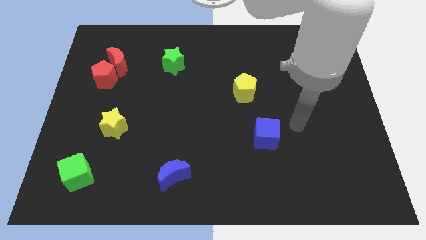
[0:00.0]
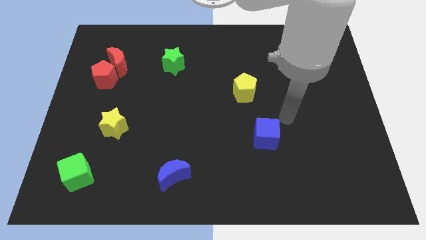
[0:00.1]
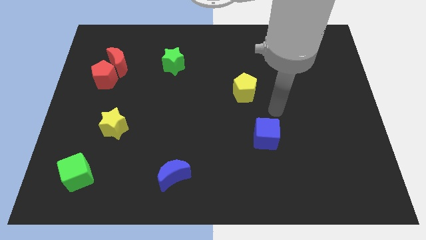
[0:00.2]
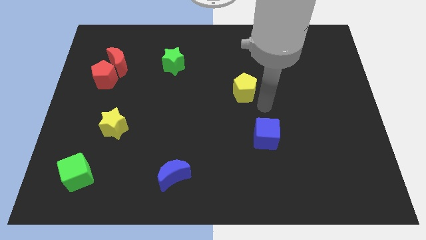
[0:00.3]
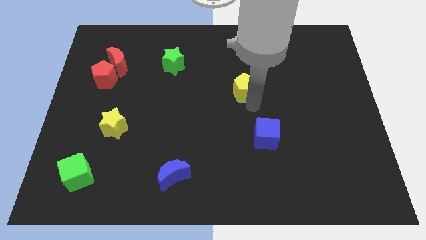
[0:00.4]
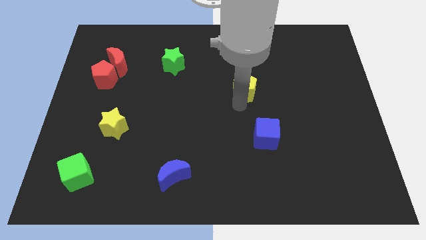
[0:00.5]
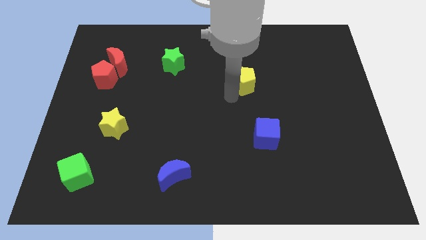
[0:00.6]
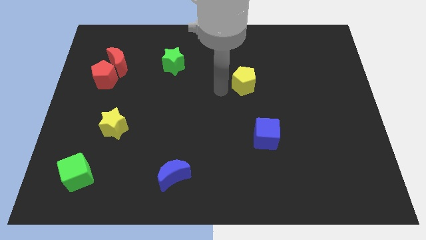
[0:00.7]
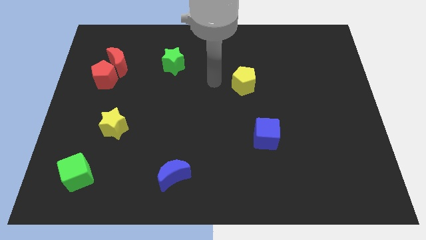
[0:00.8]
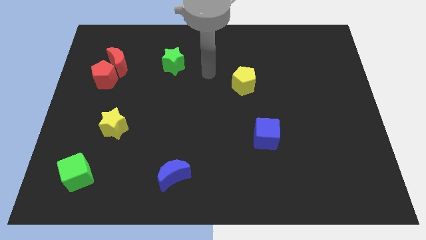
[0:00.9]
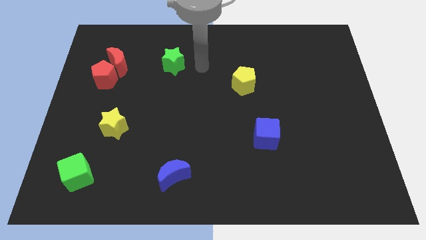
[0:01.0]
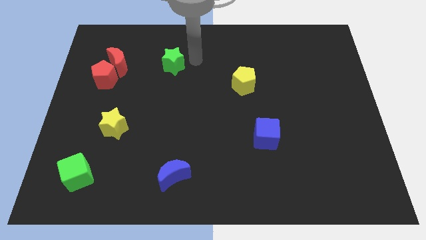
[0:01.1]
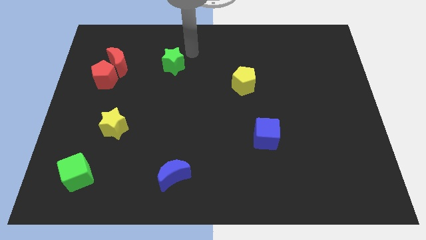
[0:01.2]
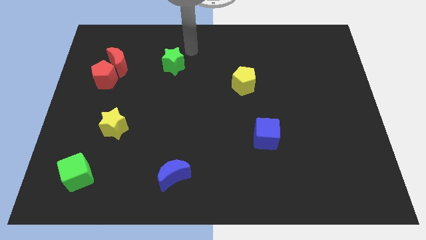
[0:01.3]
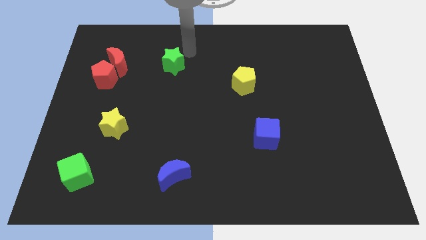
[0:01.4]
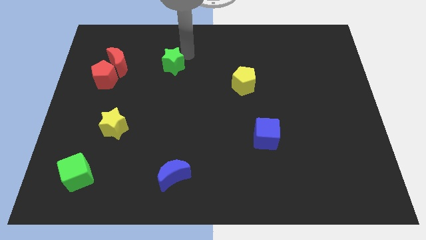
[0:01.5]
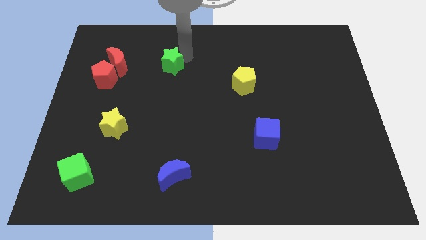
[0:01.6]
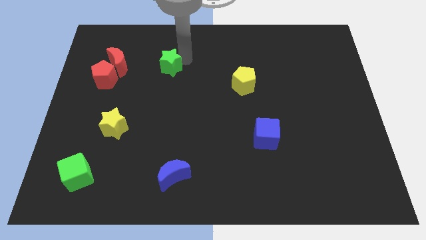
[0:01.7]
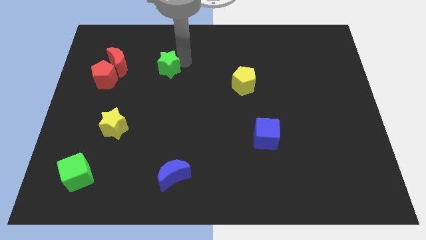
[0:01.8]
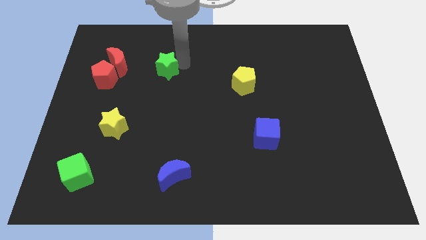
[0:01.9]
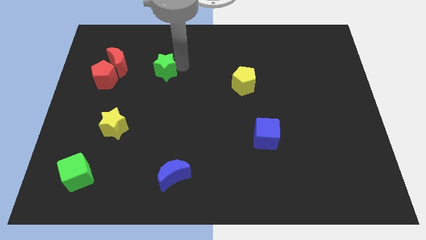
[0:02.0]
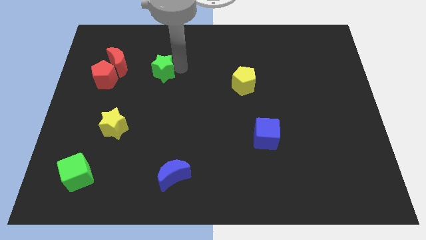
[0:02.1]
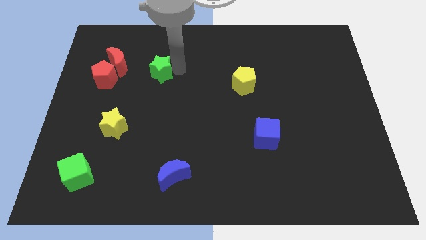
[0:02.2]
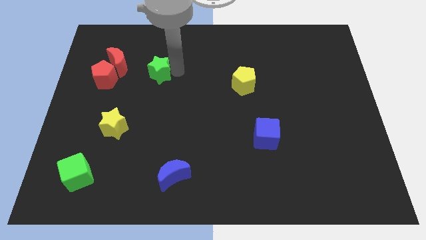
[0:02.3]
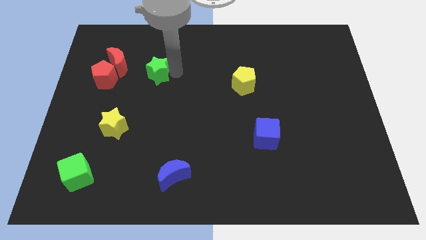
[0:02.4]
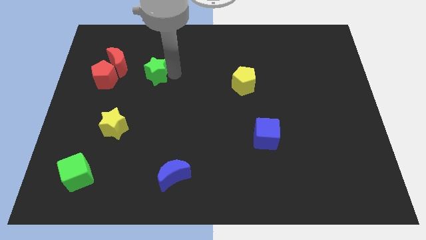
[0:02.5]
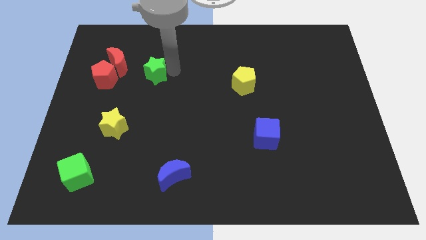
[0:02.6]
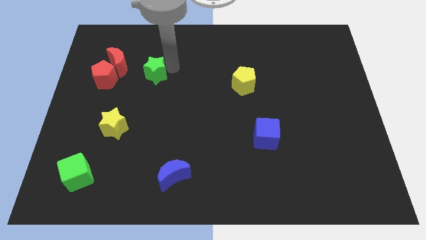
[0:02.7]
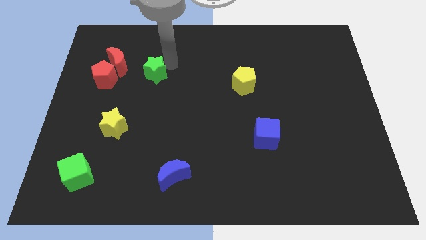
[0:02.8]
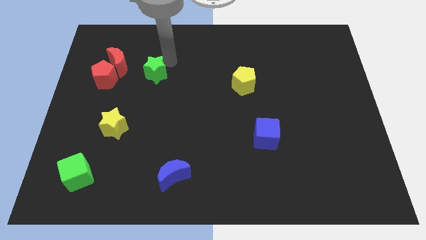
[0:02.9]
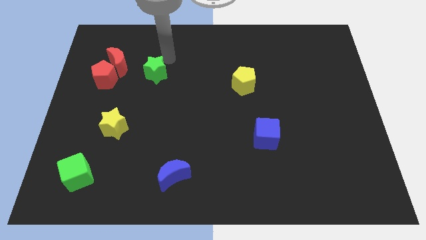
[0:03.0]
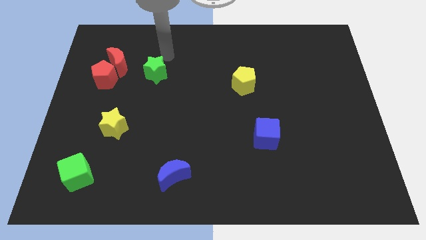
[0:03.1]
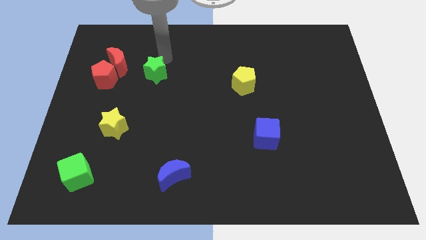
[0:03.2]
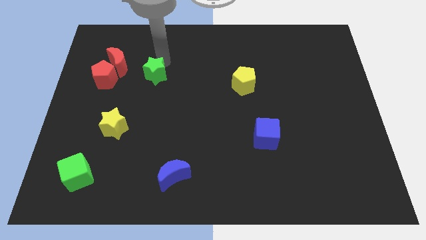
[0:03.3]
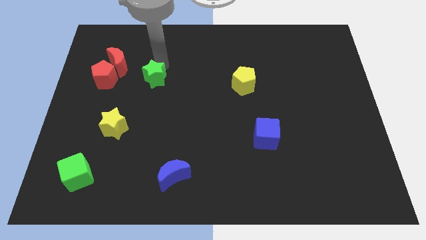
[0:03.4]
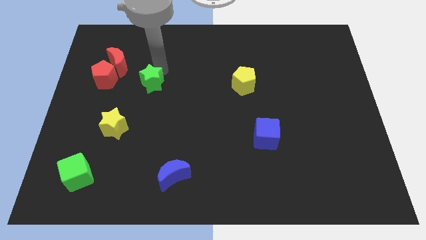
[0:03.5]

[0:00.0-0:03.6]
slightly slide the green star diagonally down and left

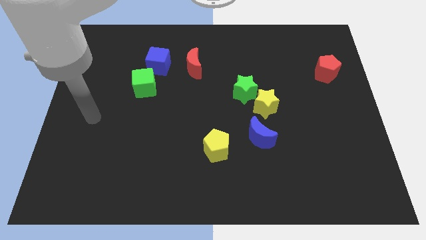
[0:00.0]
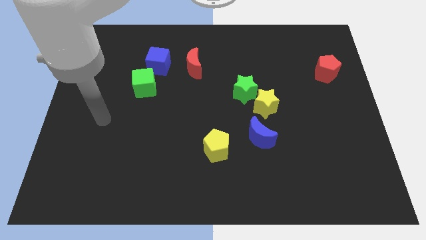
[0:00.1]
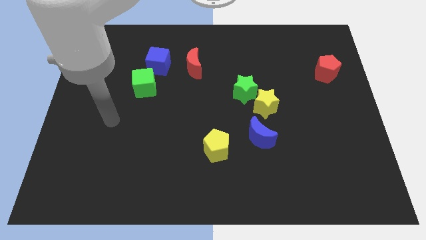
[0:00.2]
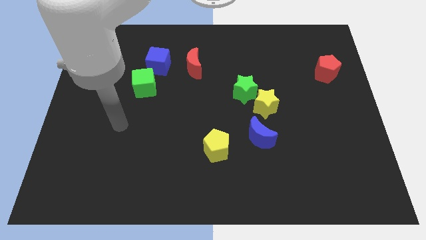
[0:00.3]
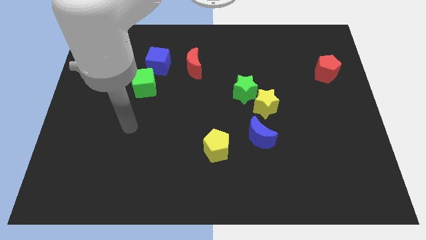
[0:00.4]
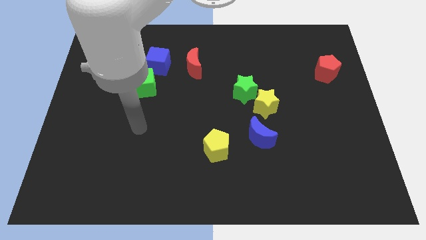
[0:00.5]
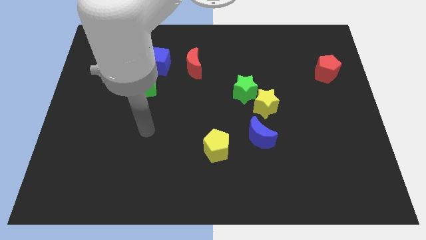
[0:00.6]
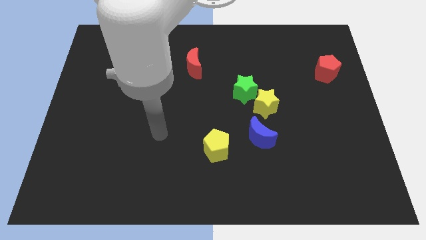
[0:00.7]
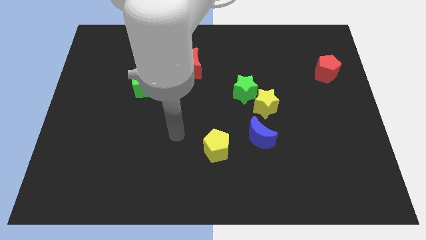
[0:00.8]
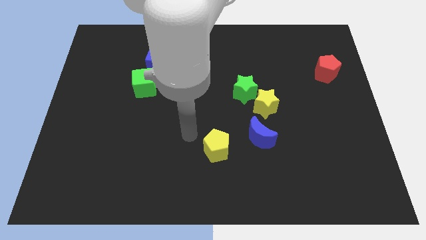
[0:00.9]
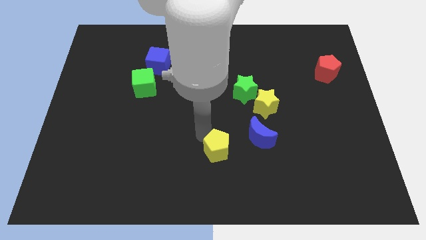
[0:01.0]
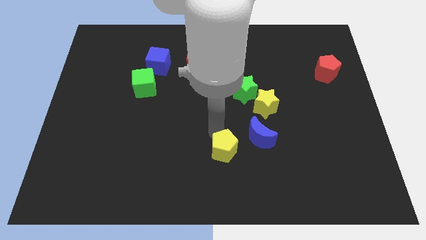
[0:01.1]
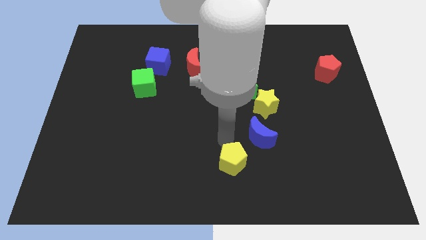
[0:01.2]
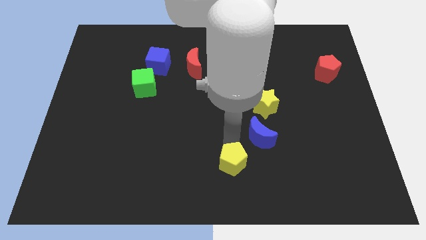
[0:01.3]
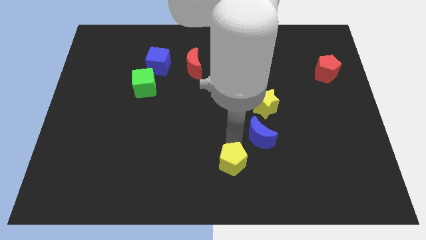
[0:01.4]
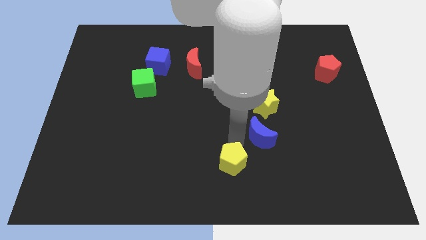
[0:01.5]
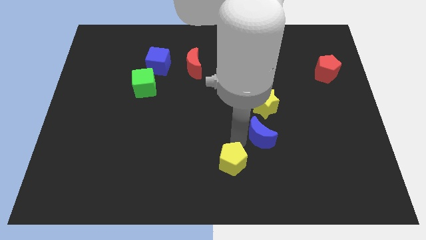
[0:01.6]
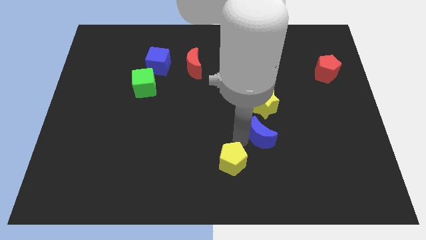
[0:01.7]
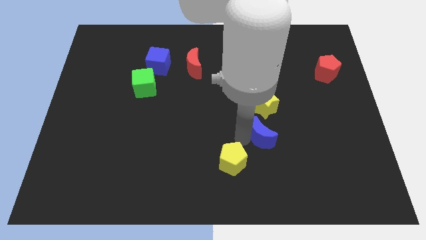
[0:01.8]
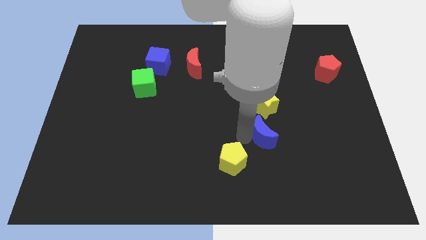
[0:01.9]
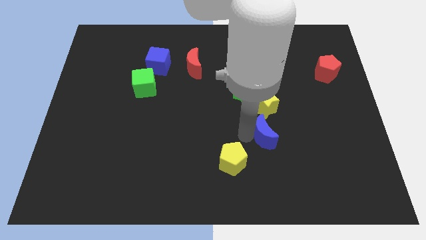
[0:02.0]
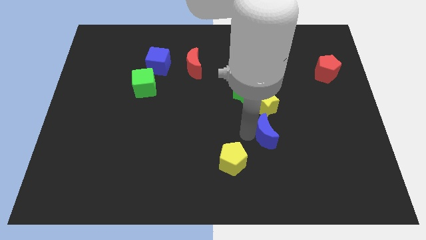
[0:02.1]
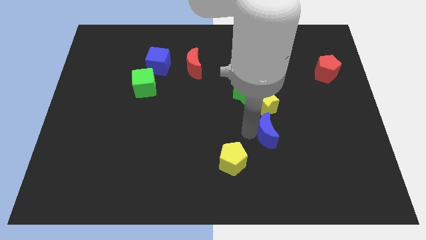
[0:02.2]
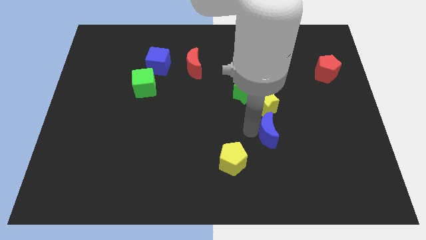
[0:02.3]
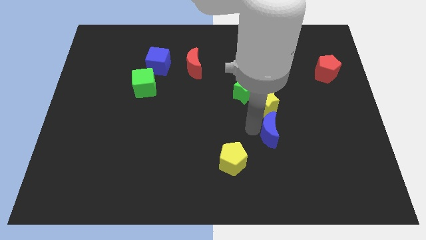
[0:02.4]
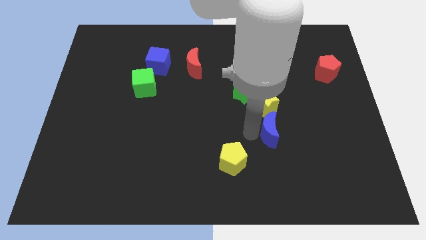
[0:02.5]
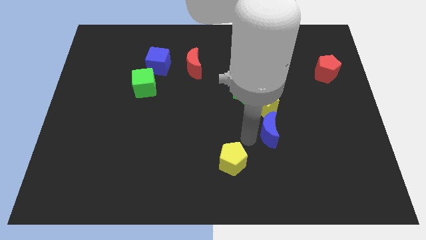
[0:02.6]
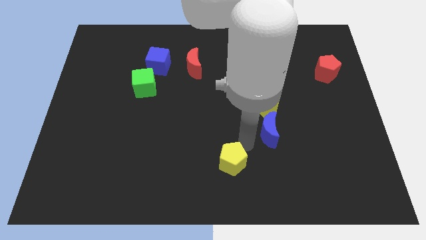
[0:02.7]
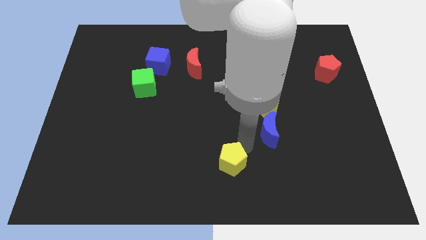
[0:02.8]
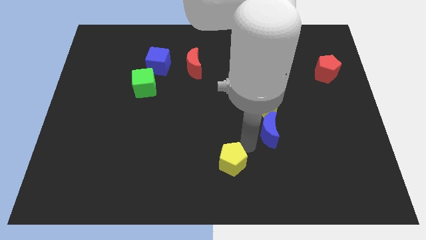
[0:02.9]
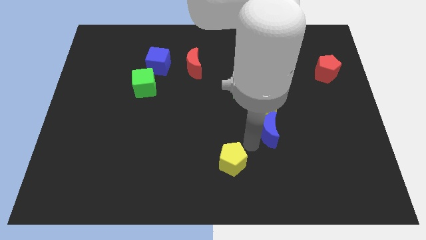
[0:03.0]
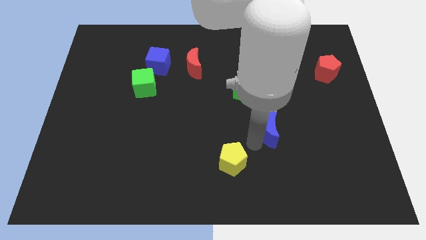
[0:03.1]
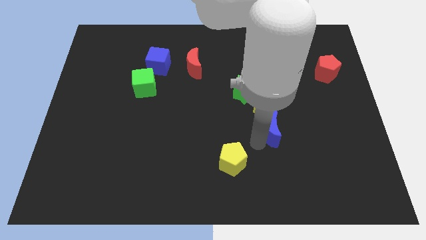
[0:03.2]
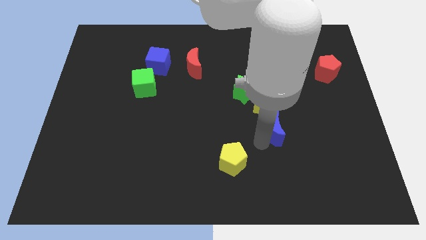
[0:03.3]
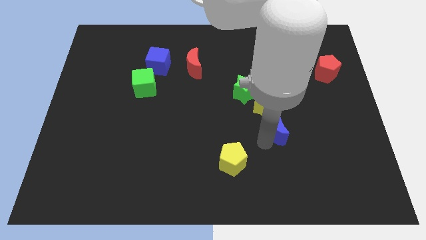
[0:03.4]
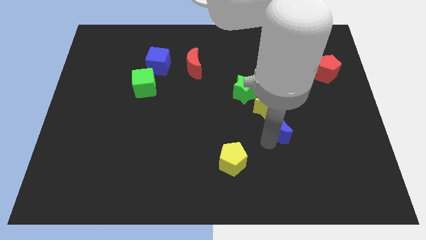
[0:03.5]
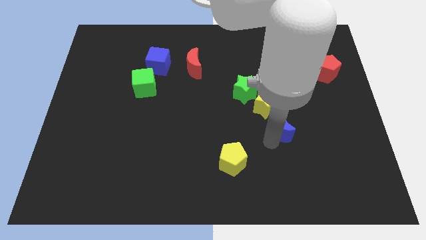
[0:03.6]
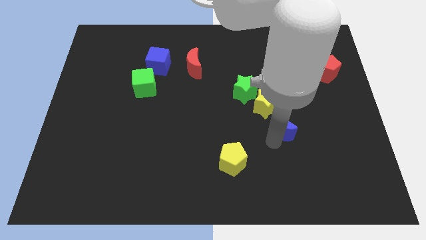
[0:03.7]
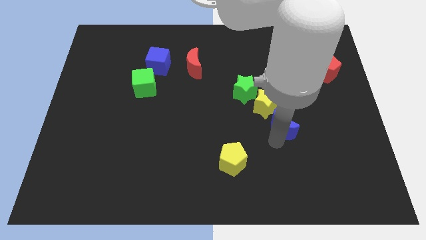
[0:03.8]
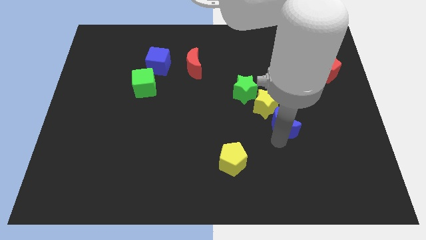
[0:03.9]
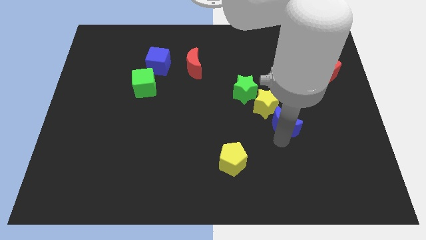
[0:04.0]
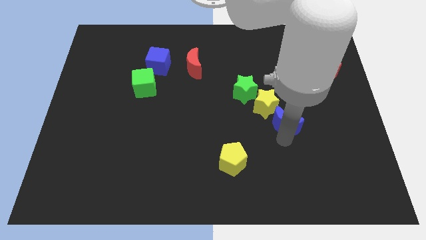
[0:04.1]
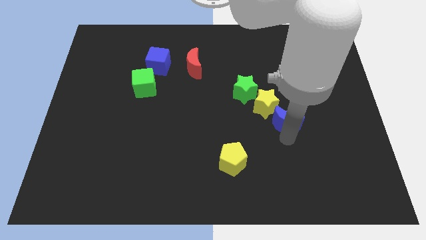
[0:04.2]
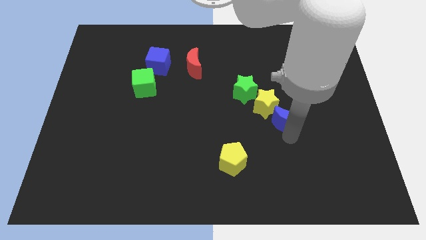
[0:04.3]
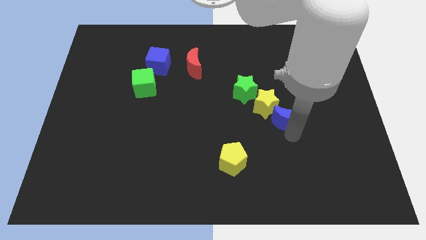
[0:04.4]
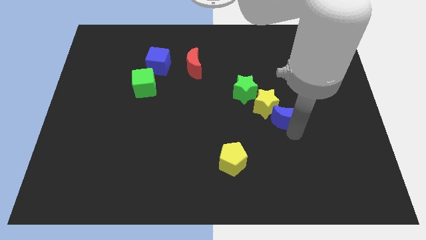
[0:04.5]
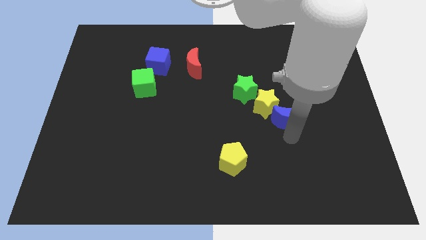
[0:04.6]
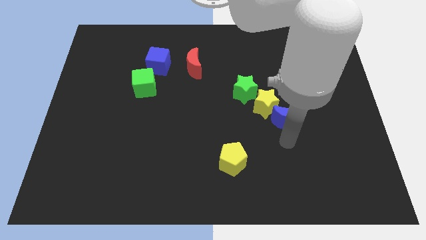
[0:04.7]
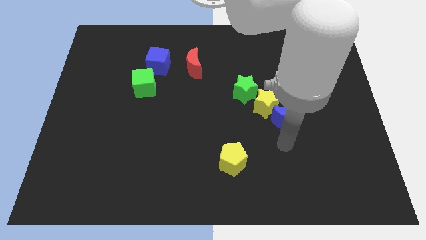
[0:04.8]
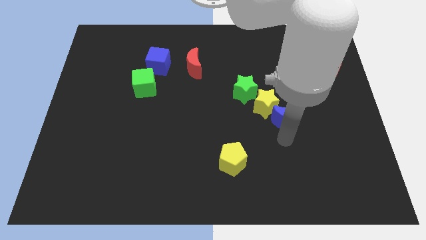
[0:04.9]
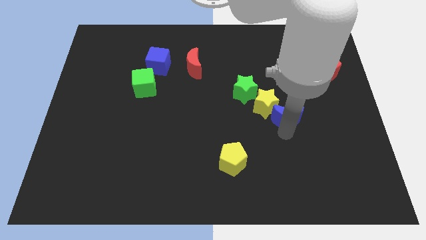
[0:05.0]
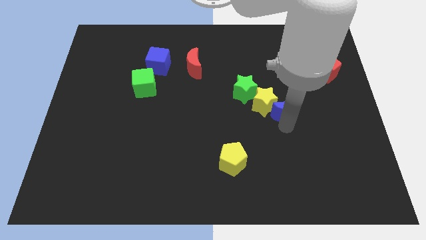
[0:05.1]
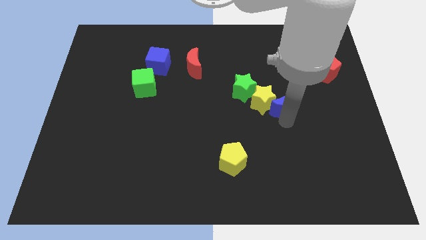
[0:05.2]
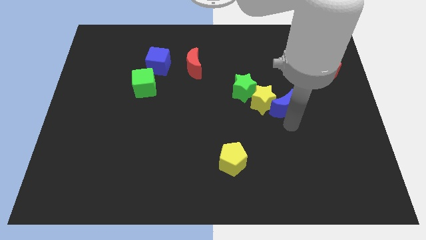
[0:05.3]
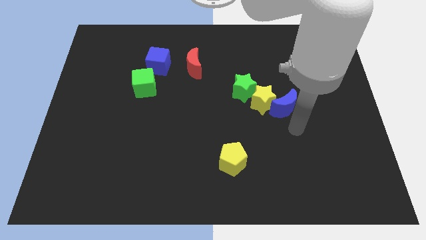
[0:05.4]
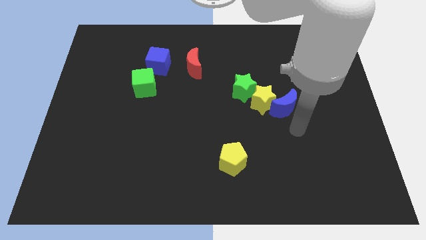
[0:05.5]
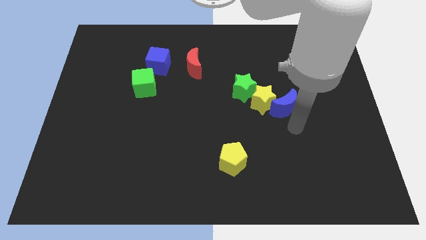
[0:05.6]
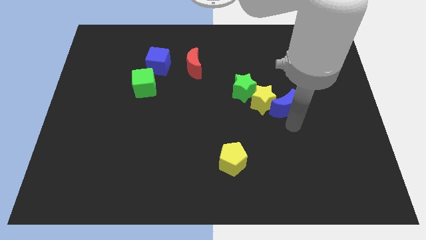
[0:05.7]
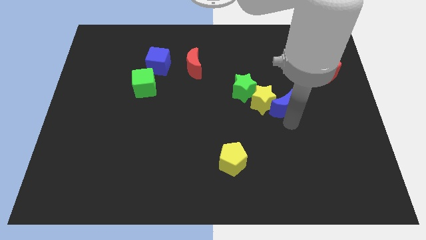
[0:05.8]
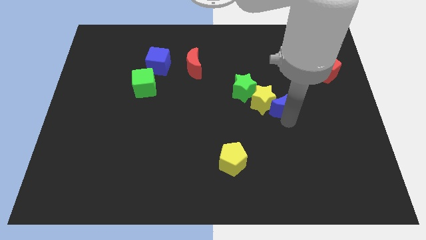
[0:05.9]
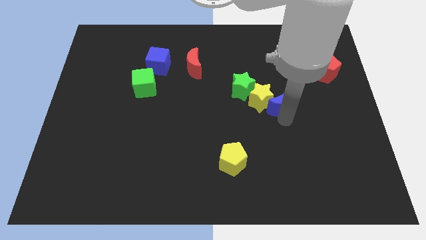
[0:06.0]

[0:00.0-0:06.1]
slide the blue moon up a little
